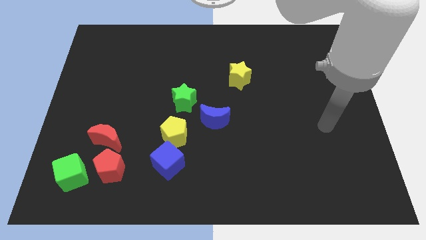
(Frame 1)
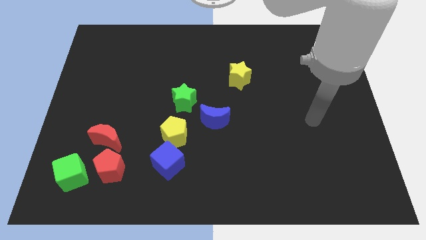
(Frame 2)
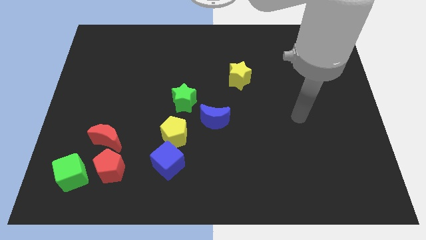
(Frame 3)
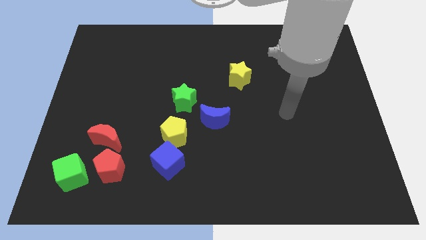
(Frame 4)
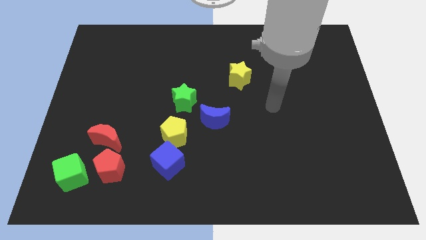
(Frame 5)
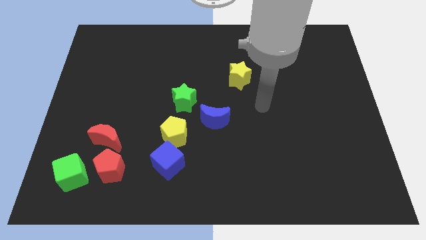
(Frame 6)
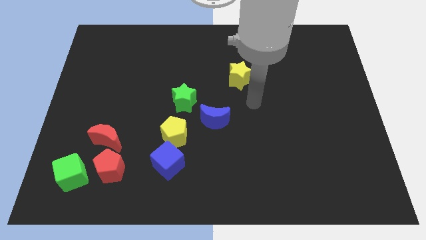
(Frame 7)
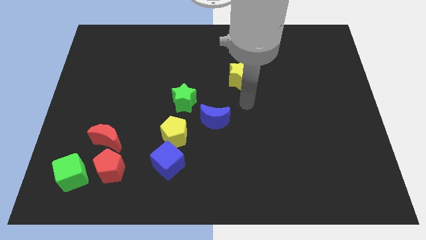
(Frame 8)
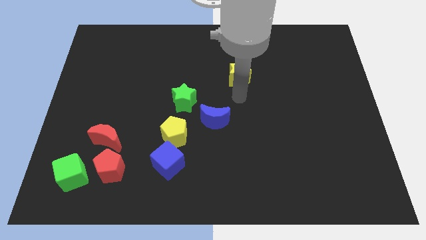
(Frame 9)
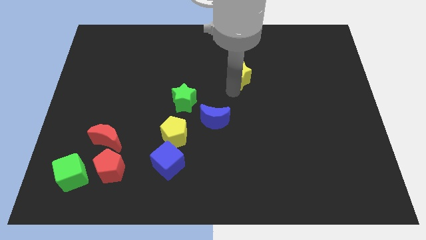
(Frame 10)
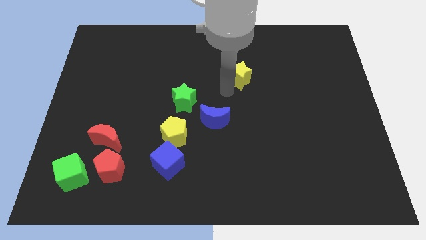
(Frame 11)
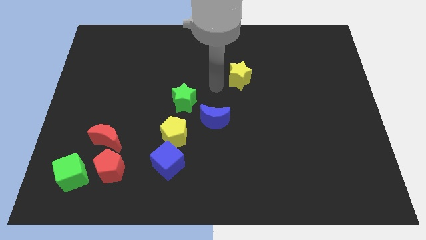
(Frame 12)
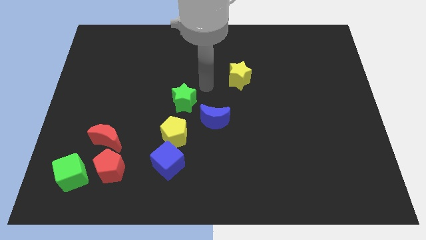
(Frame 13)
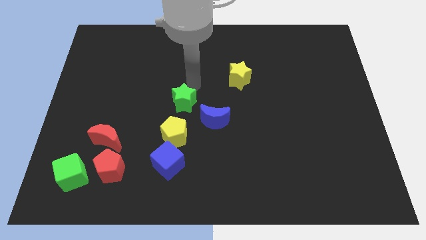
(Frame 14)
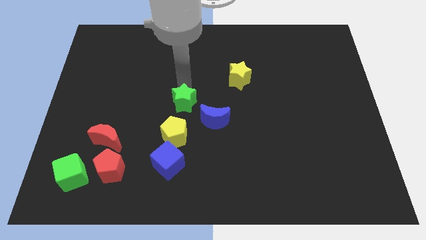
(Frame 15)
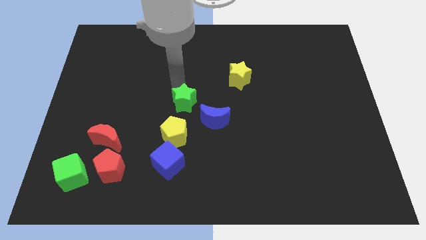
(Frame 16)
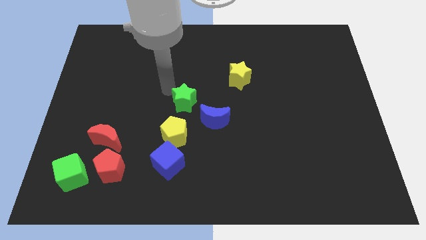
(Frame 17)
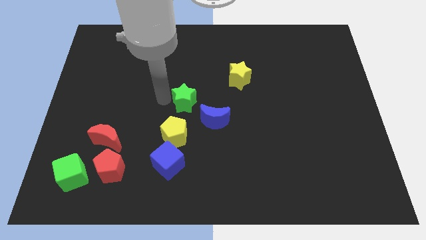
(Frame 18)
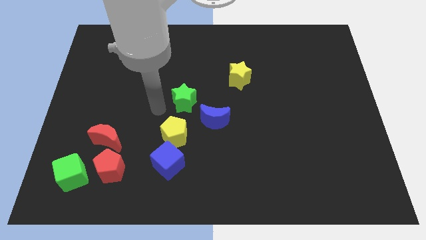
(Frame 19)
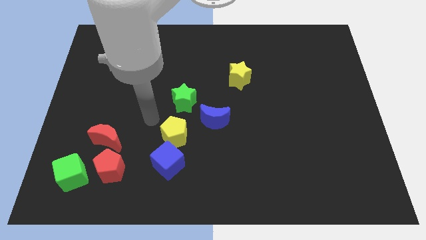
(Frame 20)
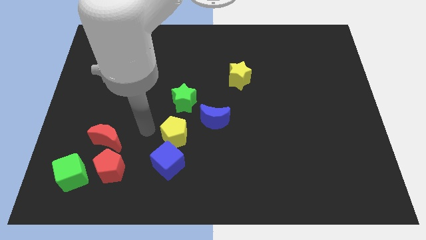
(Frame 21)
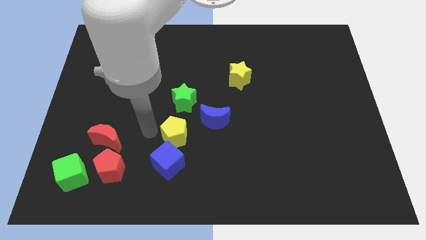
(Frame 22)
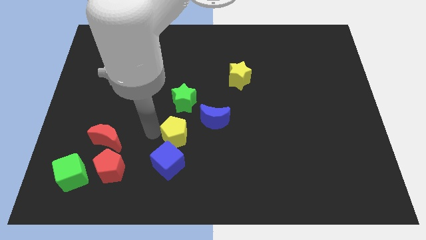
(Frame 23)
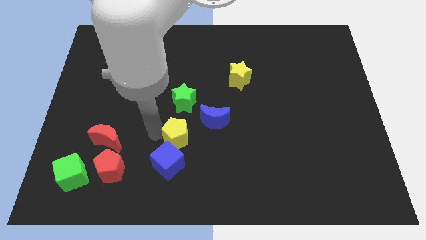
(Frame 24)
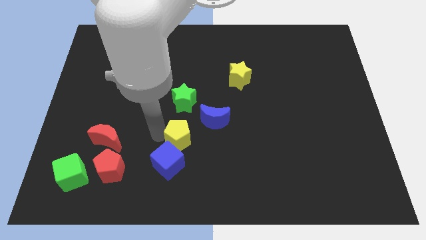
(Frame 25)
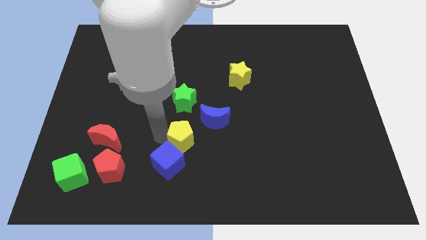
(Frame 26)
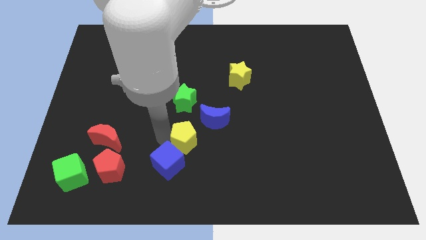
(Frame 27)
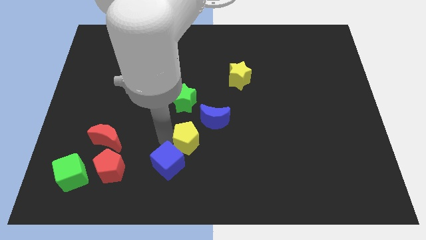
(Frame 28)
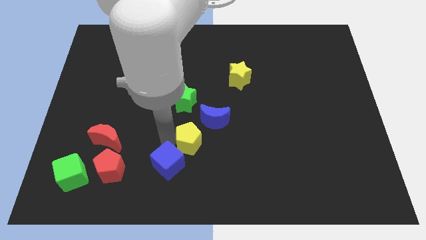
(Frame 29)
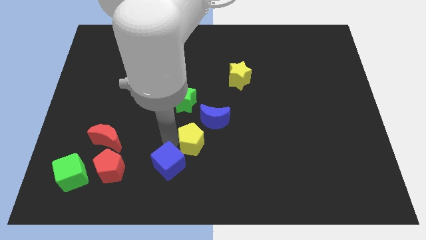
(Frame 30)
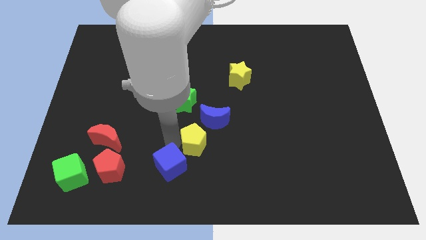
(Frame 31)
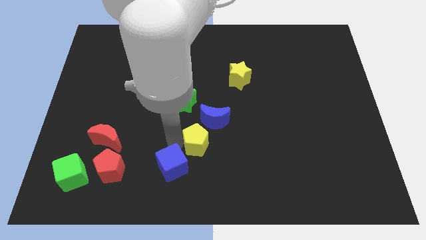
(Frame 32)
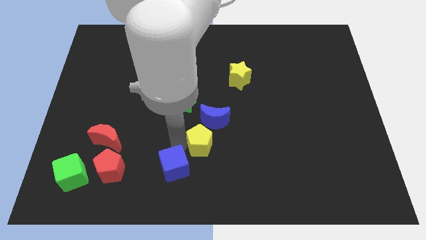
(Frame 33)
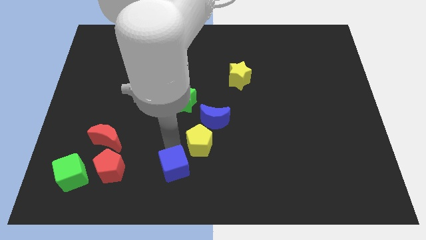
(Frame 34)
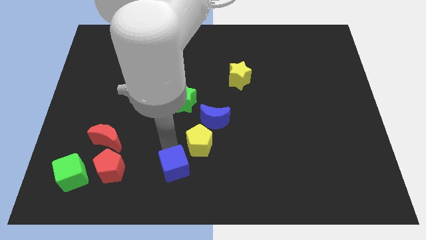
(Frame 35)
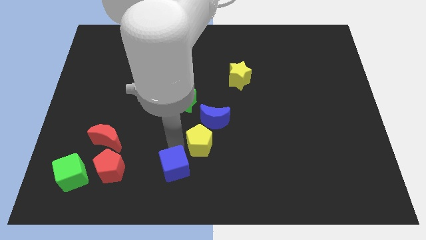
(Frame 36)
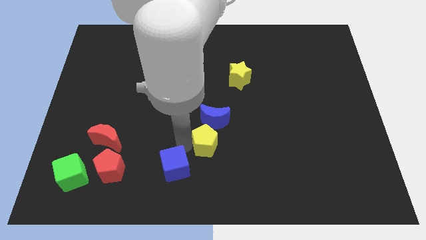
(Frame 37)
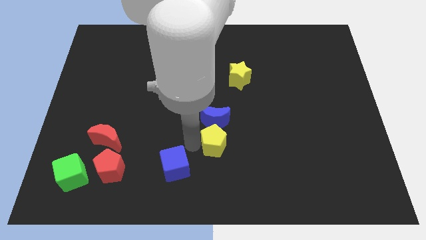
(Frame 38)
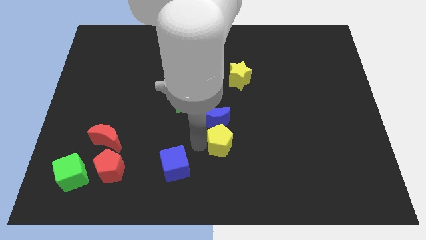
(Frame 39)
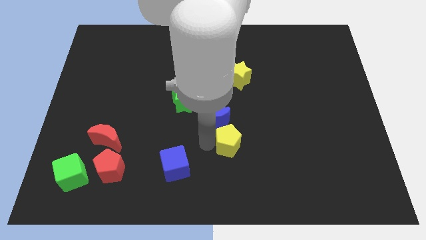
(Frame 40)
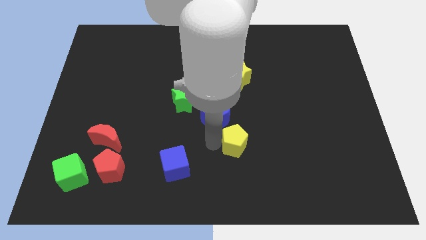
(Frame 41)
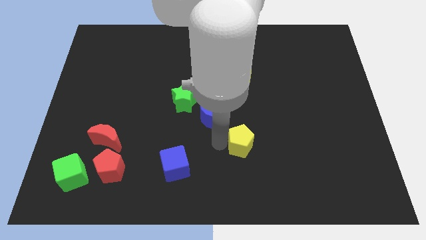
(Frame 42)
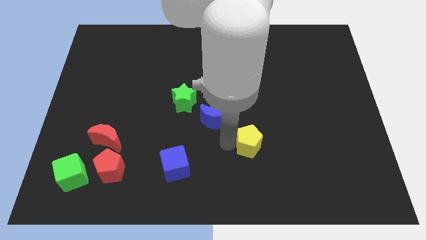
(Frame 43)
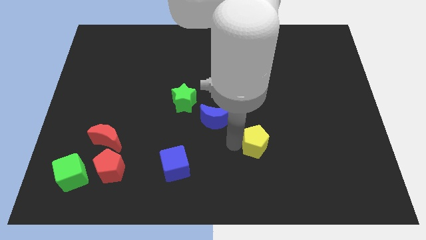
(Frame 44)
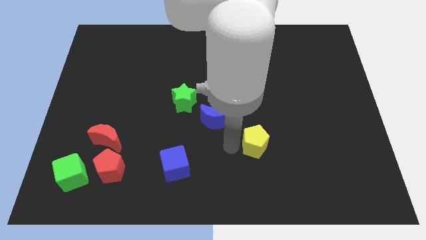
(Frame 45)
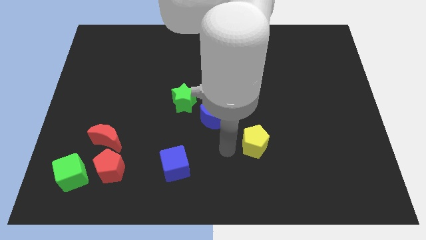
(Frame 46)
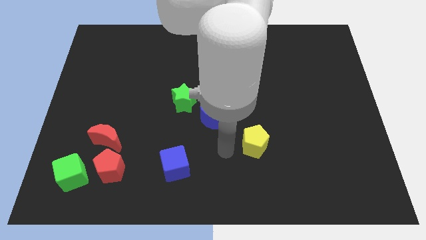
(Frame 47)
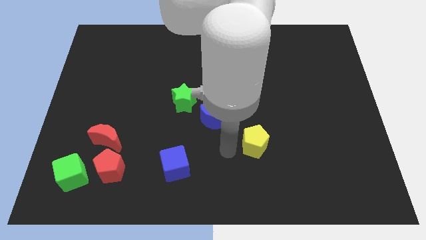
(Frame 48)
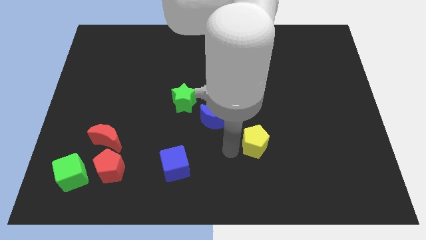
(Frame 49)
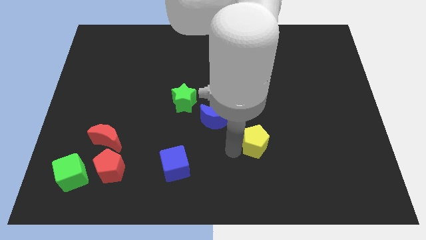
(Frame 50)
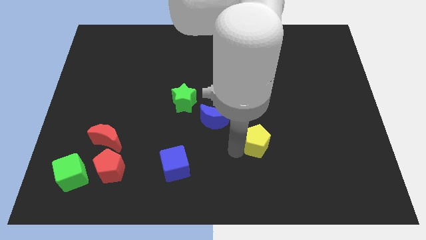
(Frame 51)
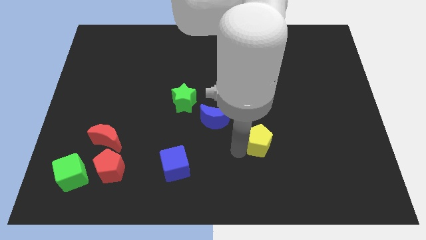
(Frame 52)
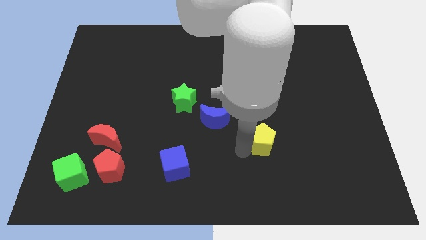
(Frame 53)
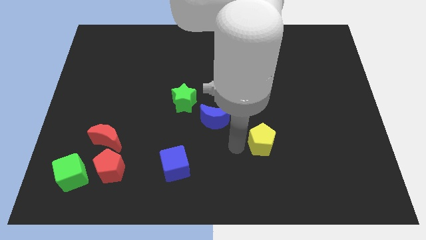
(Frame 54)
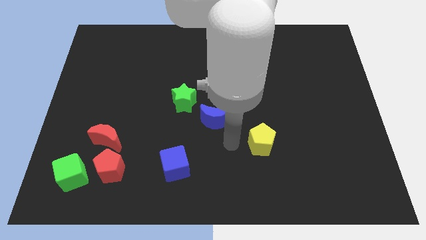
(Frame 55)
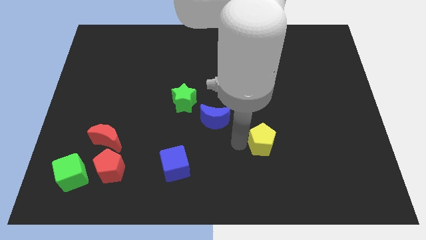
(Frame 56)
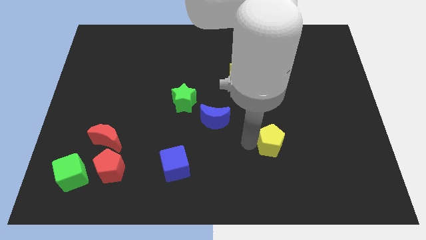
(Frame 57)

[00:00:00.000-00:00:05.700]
move the yellow pentagon to the right

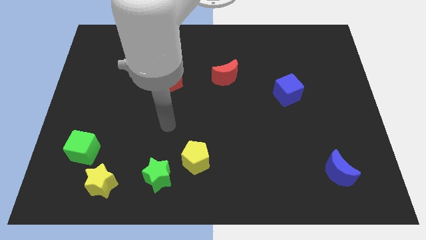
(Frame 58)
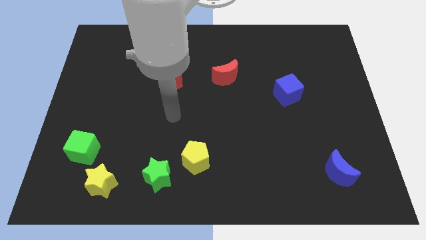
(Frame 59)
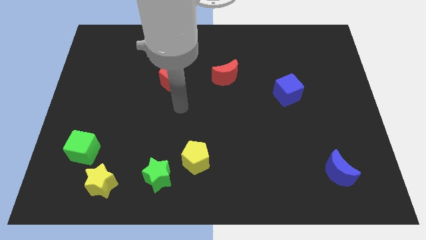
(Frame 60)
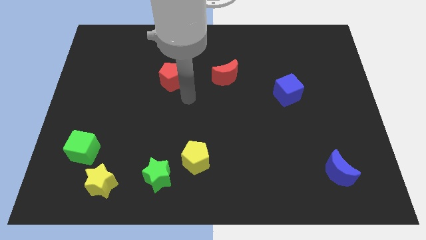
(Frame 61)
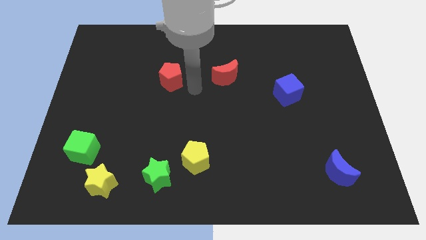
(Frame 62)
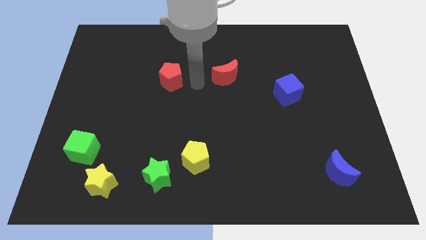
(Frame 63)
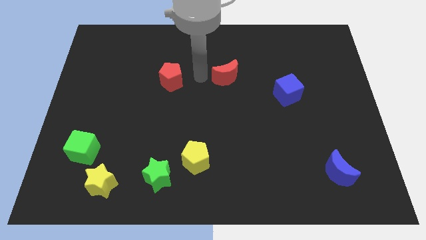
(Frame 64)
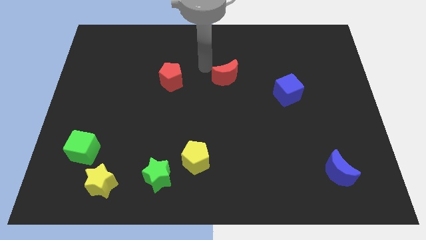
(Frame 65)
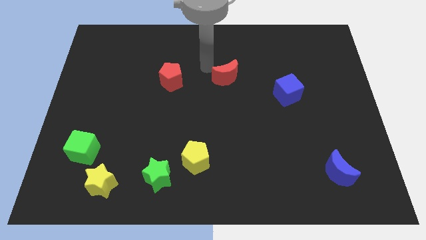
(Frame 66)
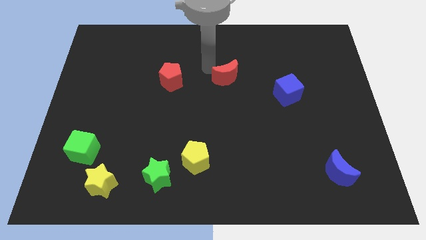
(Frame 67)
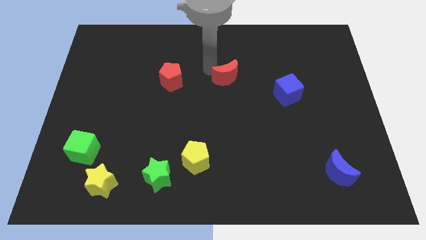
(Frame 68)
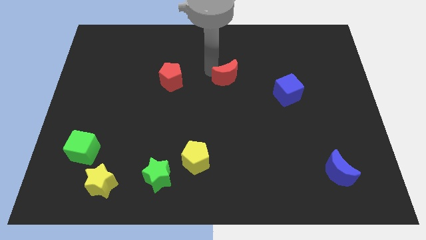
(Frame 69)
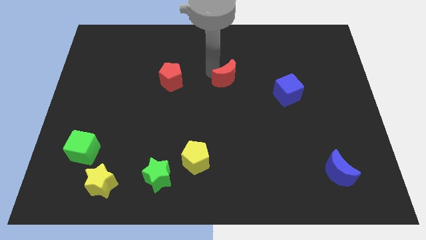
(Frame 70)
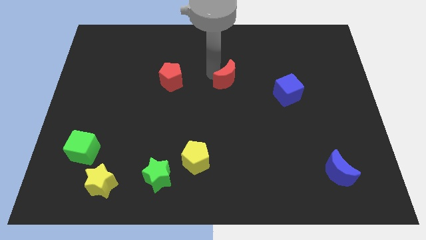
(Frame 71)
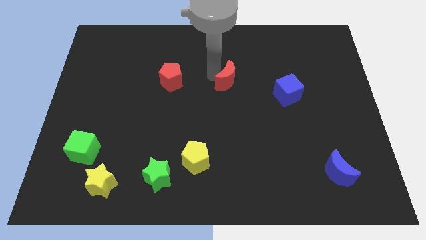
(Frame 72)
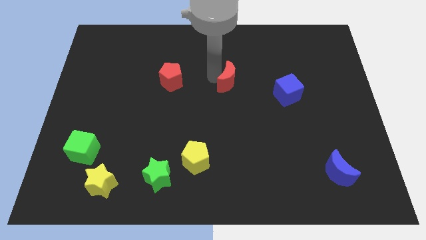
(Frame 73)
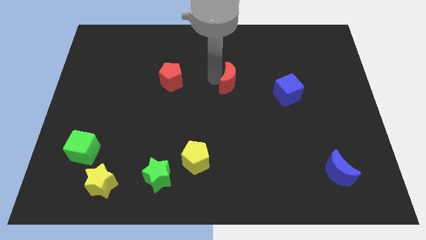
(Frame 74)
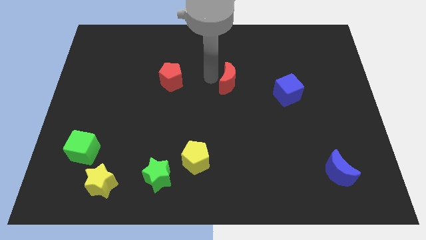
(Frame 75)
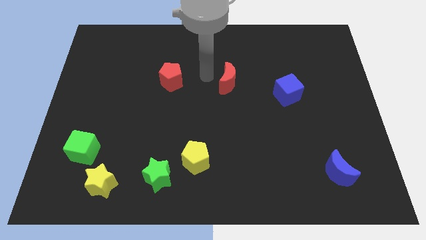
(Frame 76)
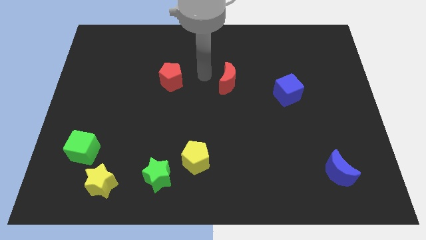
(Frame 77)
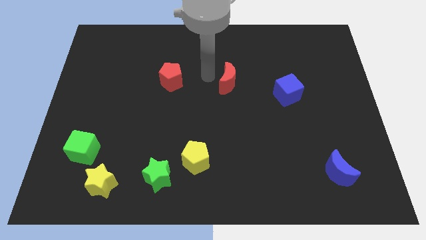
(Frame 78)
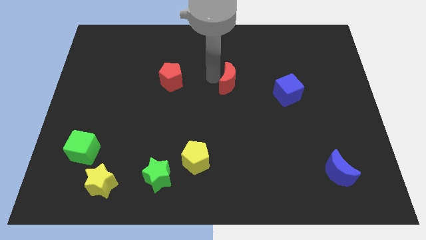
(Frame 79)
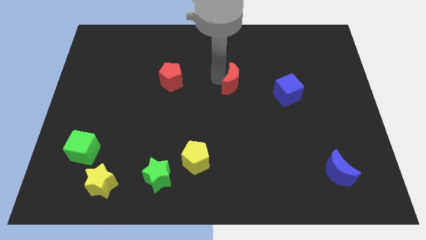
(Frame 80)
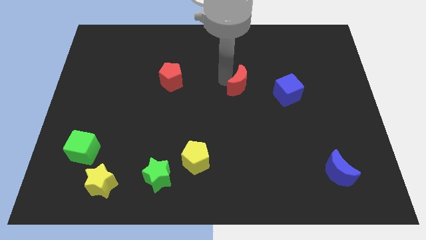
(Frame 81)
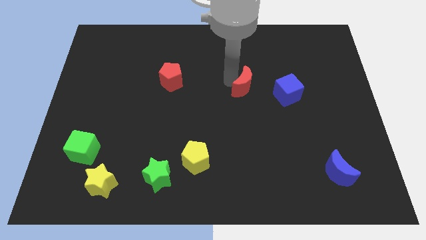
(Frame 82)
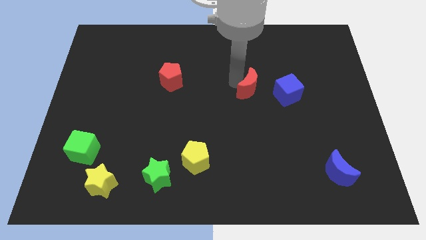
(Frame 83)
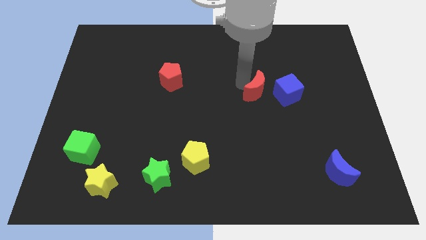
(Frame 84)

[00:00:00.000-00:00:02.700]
push the red moon a little downwards and right
